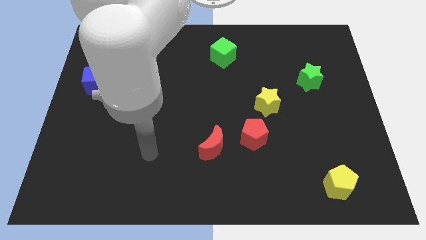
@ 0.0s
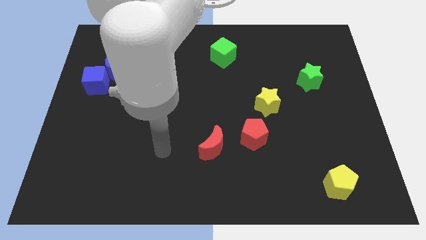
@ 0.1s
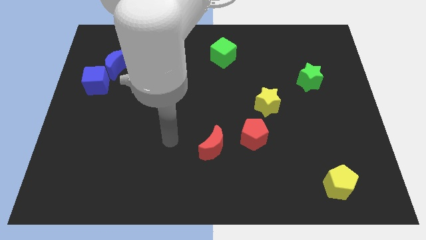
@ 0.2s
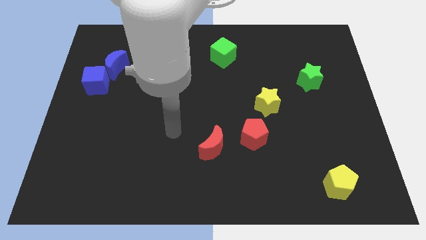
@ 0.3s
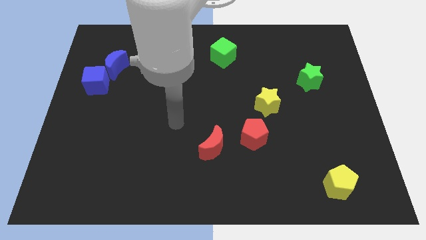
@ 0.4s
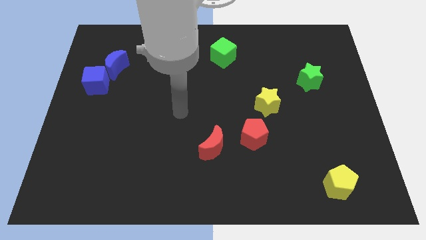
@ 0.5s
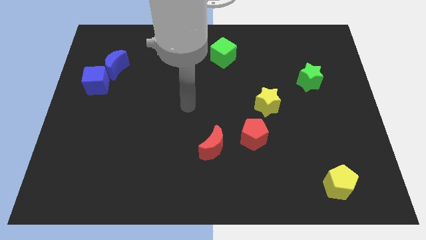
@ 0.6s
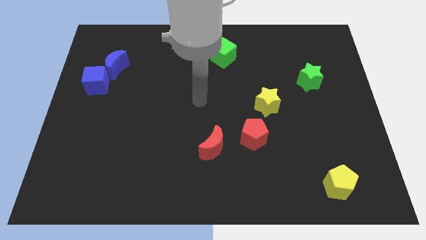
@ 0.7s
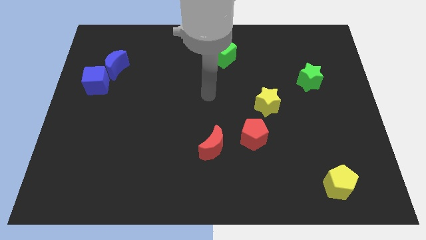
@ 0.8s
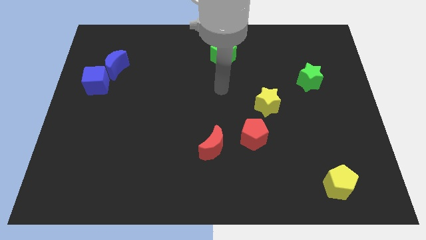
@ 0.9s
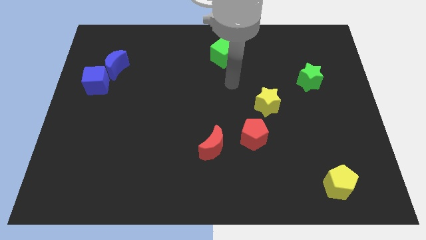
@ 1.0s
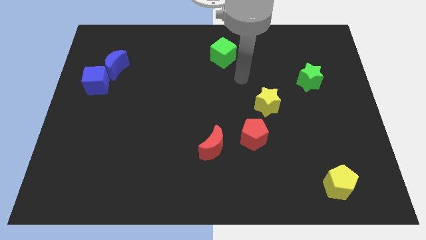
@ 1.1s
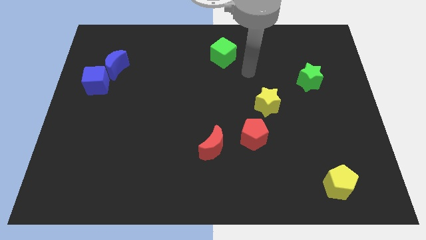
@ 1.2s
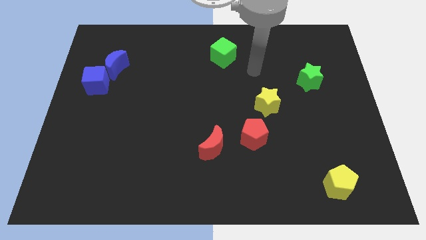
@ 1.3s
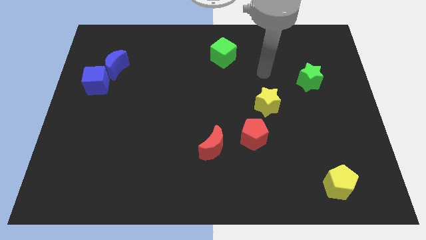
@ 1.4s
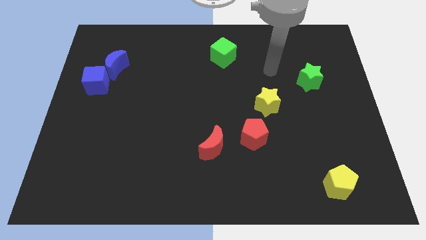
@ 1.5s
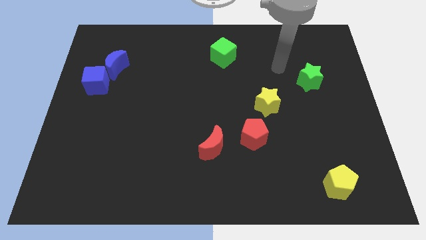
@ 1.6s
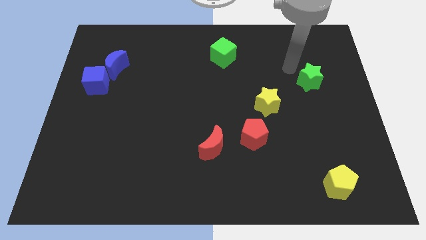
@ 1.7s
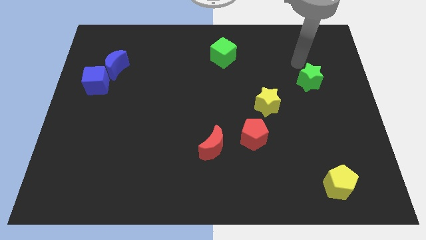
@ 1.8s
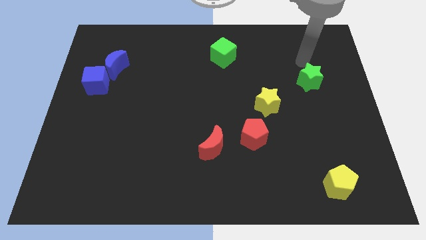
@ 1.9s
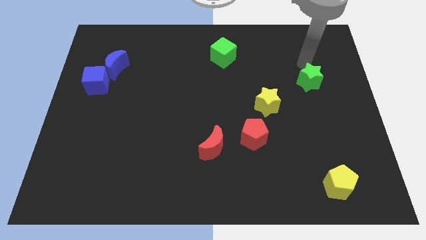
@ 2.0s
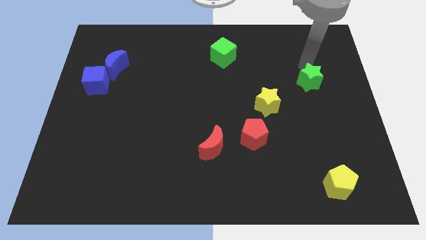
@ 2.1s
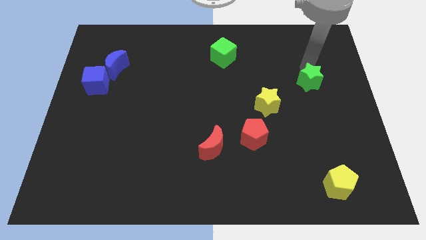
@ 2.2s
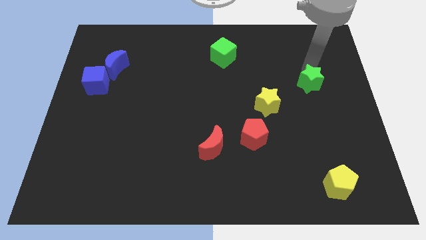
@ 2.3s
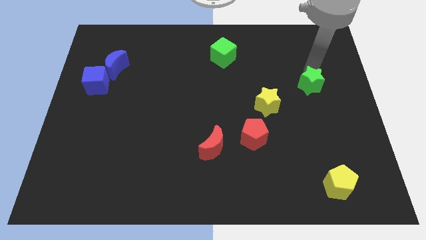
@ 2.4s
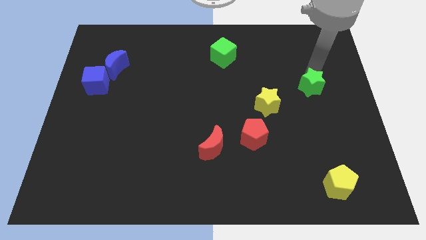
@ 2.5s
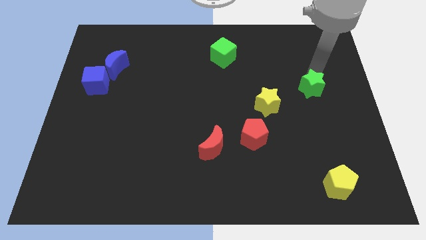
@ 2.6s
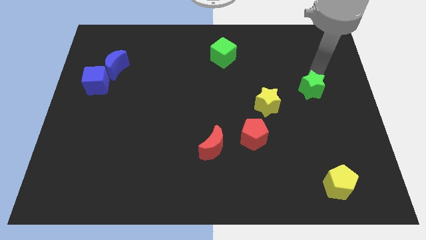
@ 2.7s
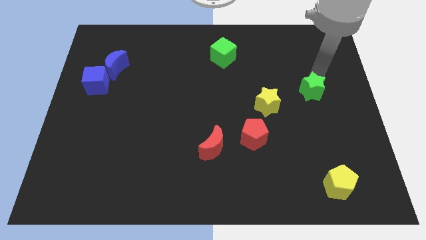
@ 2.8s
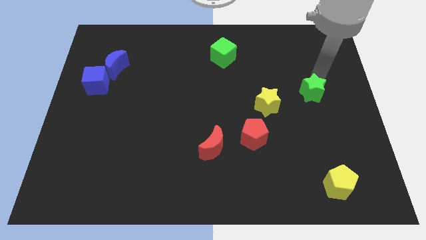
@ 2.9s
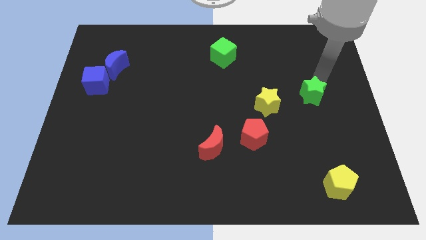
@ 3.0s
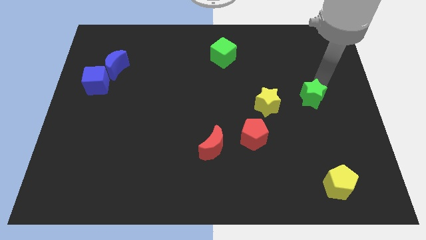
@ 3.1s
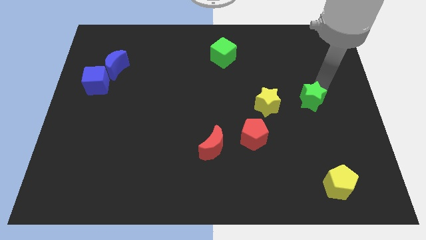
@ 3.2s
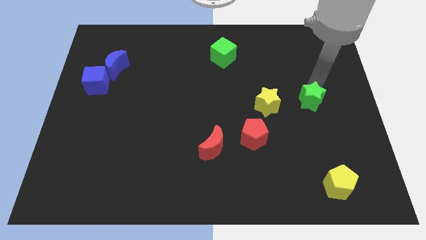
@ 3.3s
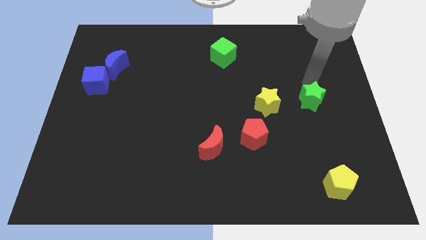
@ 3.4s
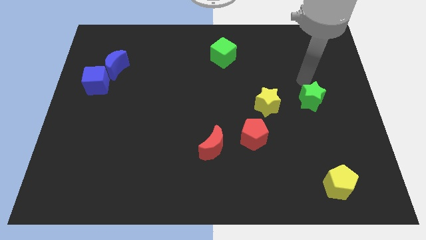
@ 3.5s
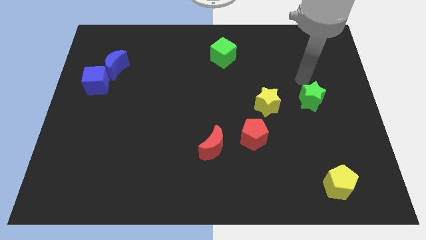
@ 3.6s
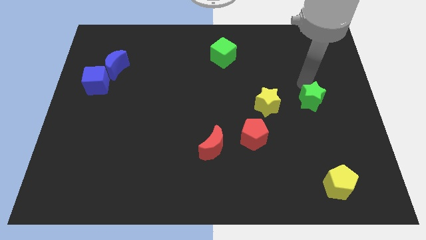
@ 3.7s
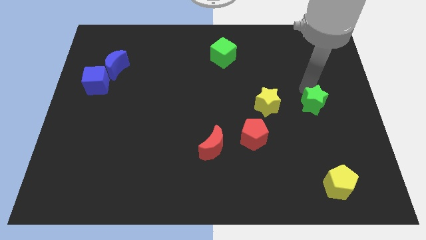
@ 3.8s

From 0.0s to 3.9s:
slightly move the green star down

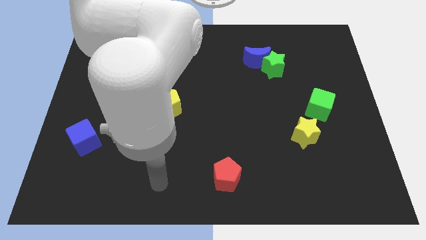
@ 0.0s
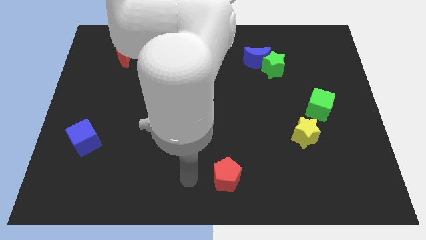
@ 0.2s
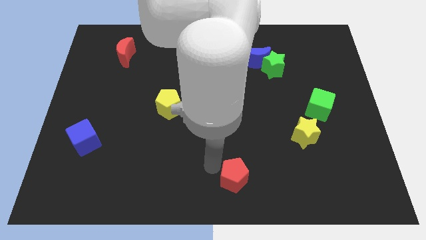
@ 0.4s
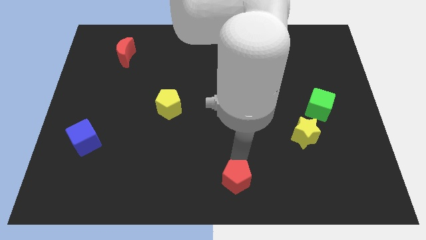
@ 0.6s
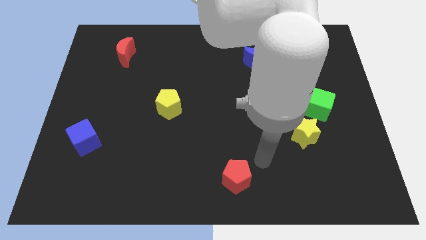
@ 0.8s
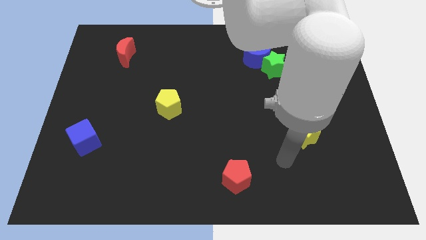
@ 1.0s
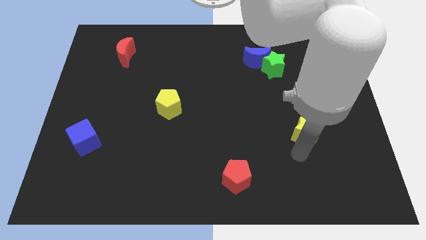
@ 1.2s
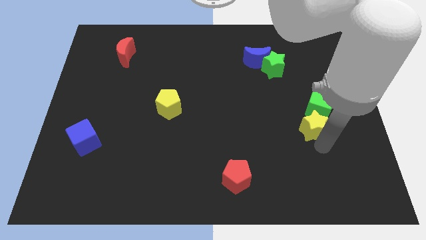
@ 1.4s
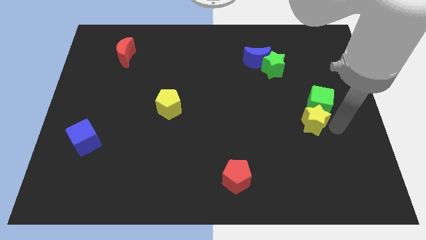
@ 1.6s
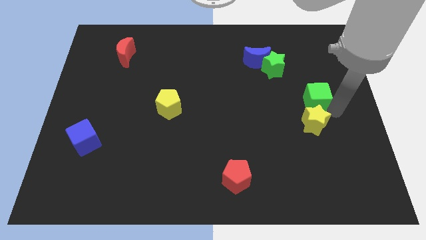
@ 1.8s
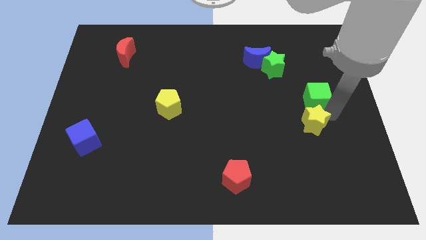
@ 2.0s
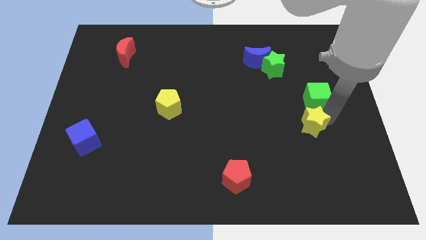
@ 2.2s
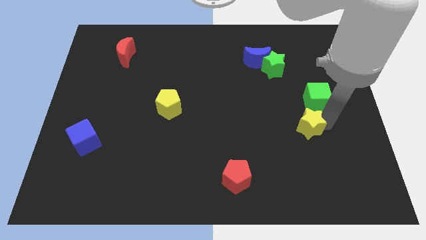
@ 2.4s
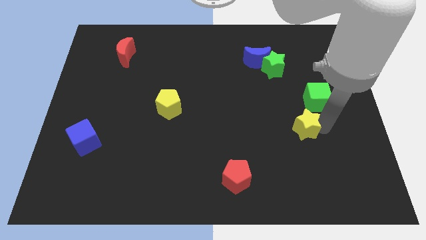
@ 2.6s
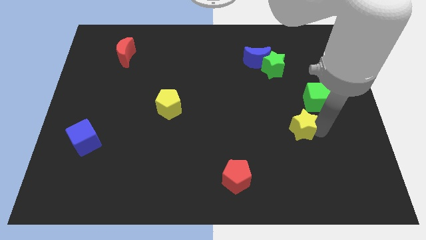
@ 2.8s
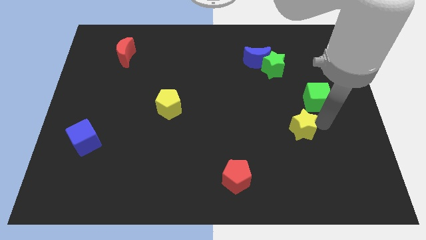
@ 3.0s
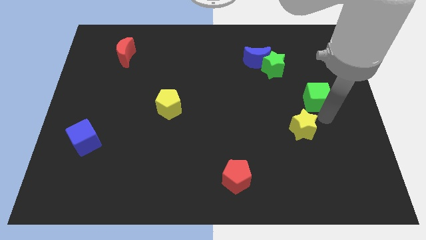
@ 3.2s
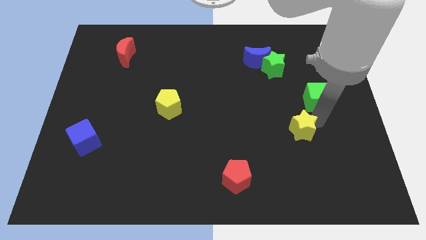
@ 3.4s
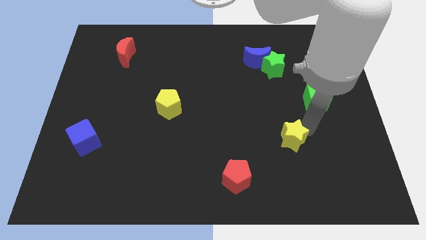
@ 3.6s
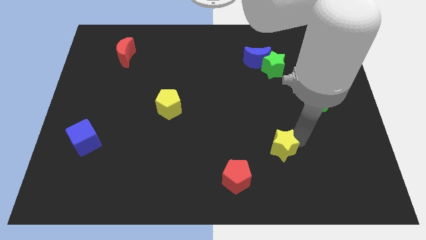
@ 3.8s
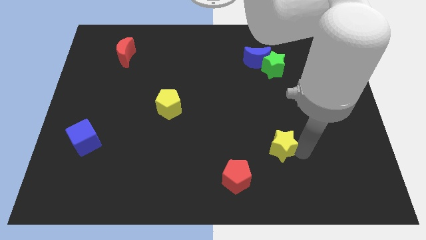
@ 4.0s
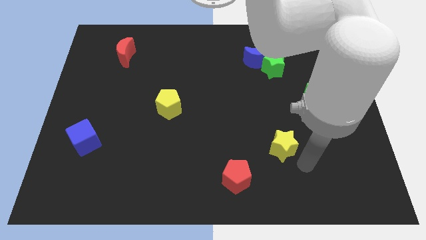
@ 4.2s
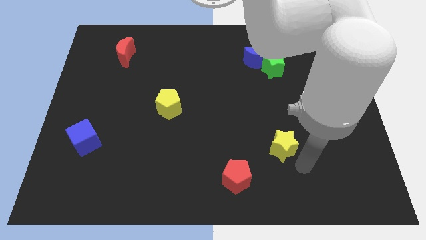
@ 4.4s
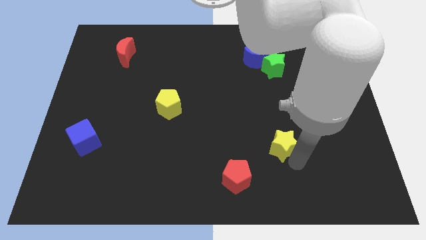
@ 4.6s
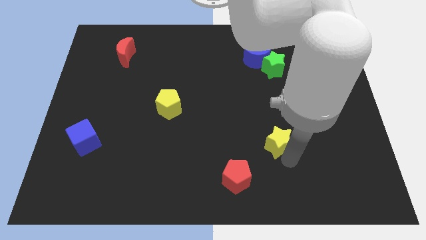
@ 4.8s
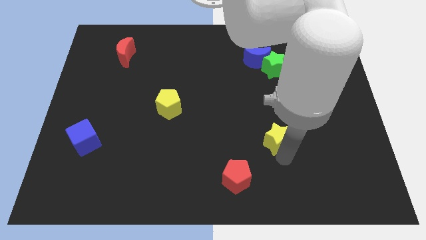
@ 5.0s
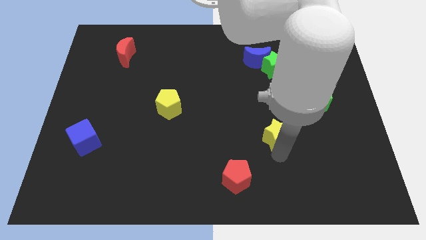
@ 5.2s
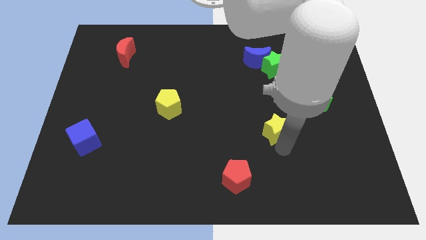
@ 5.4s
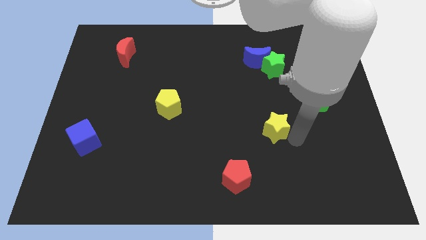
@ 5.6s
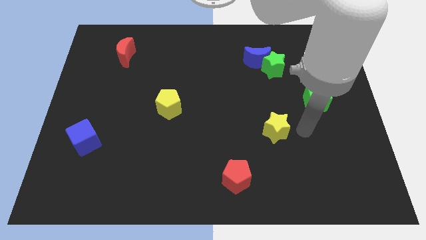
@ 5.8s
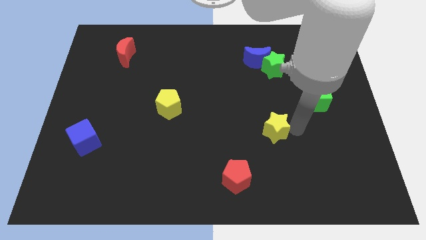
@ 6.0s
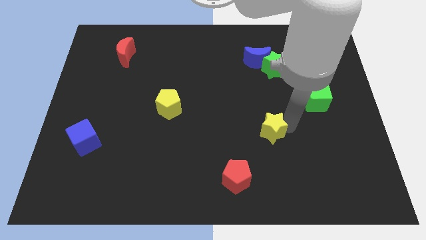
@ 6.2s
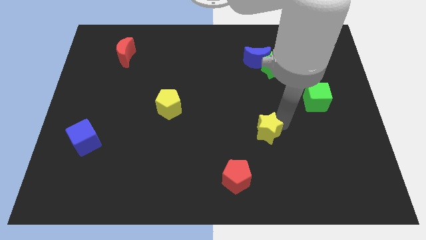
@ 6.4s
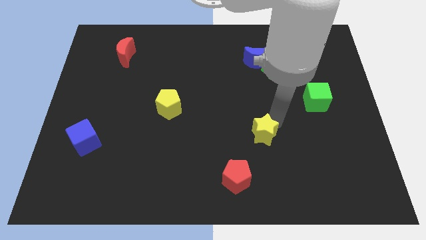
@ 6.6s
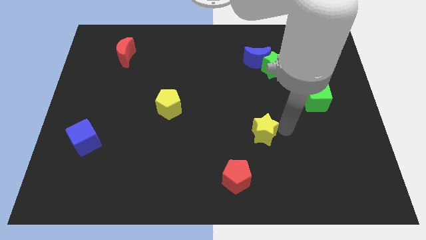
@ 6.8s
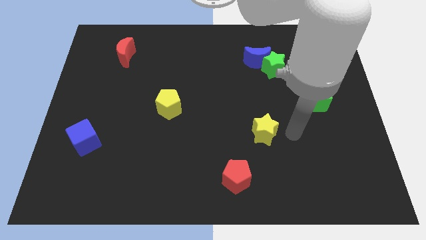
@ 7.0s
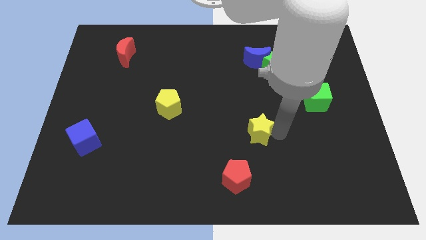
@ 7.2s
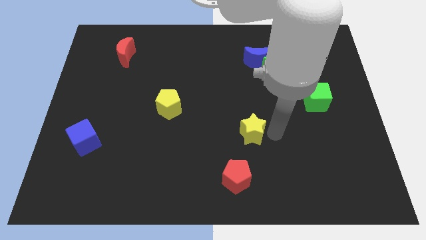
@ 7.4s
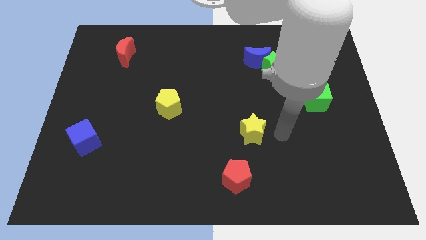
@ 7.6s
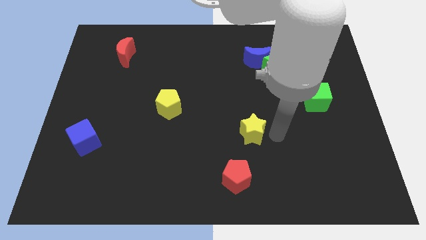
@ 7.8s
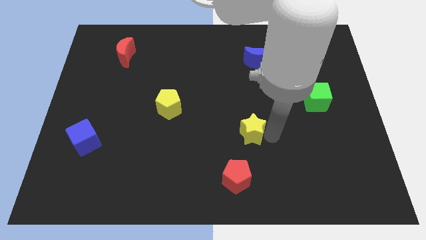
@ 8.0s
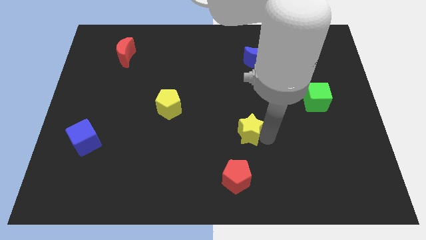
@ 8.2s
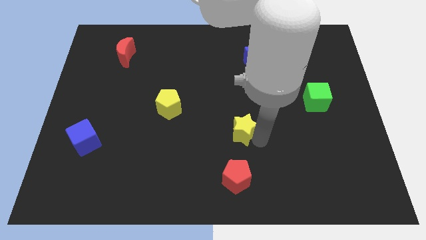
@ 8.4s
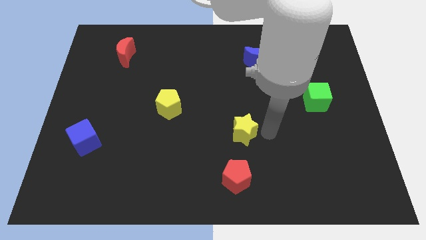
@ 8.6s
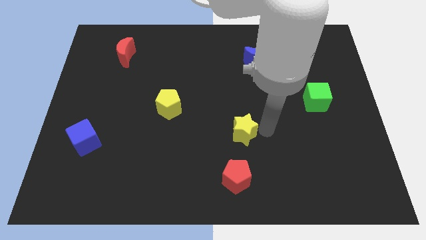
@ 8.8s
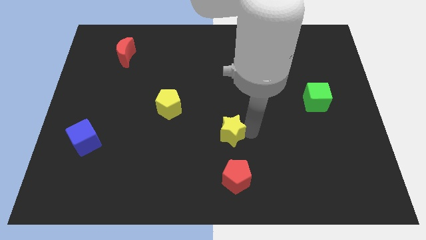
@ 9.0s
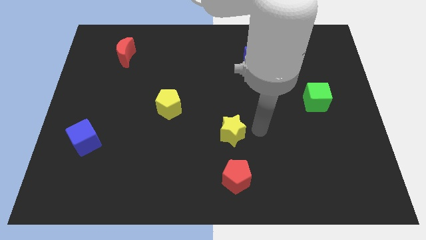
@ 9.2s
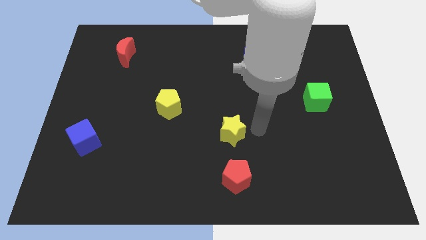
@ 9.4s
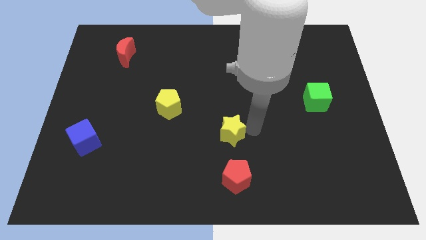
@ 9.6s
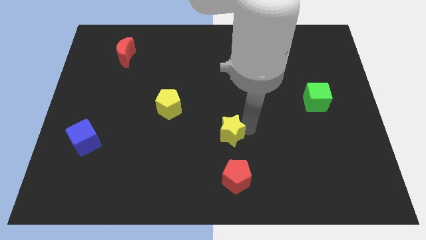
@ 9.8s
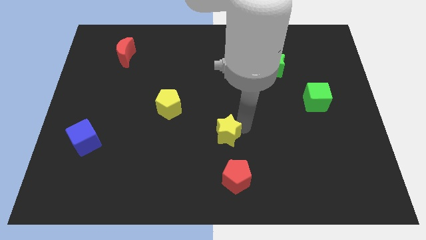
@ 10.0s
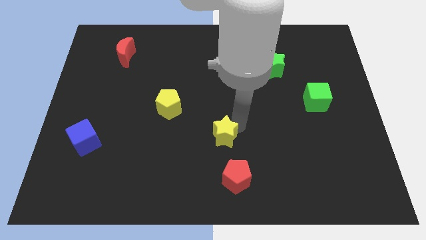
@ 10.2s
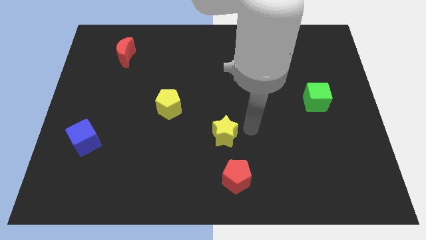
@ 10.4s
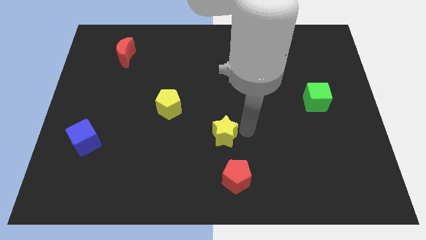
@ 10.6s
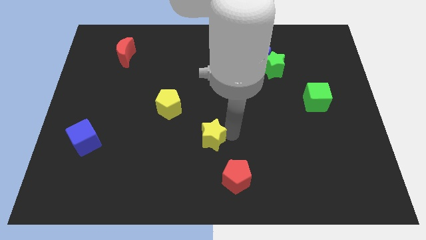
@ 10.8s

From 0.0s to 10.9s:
move the yellow star left
